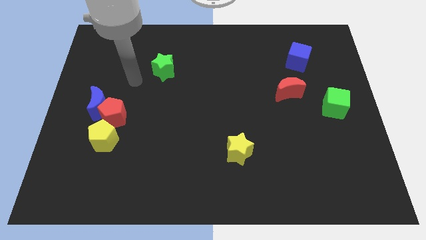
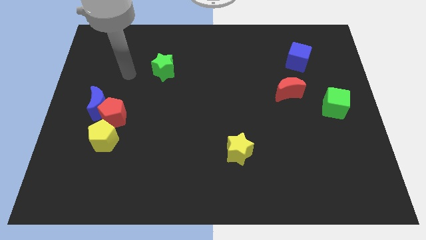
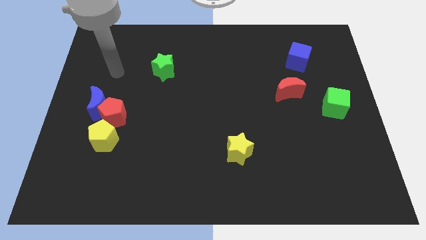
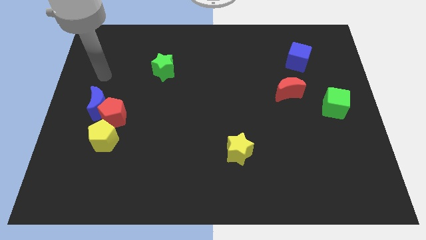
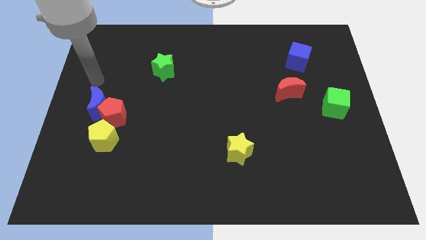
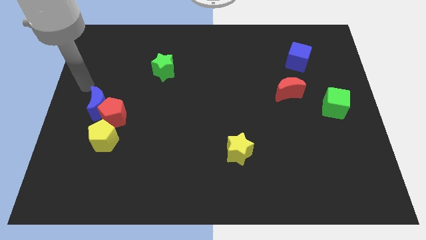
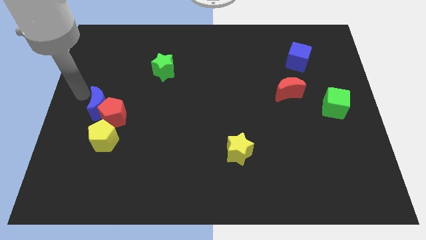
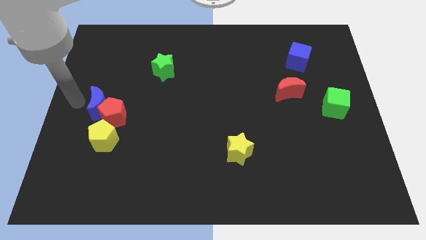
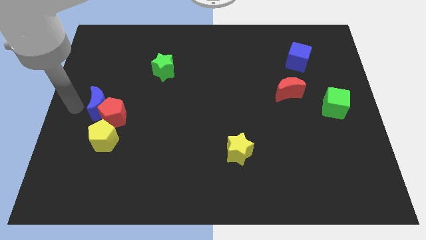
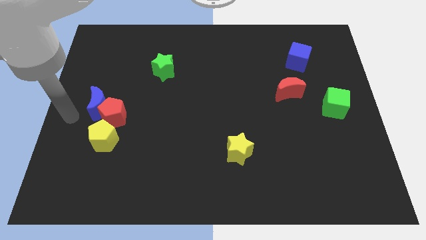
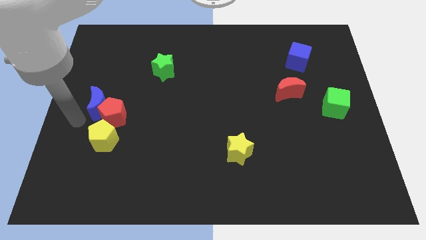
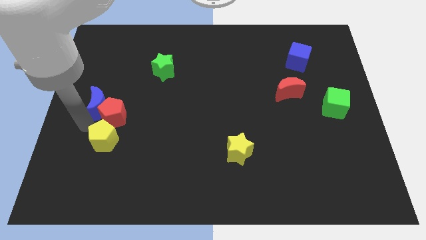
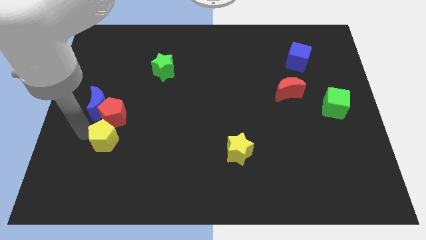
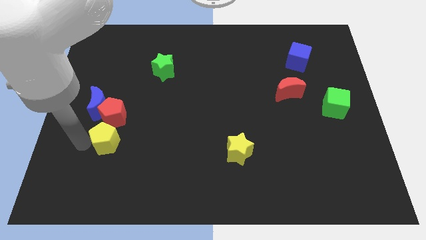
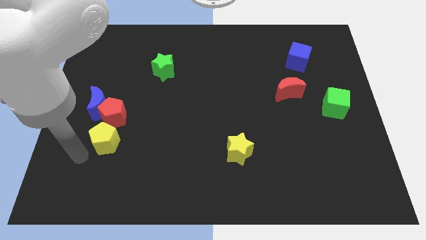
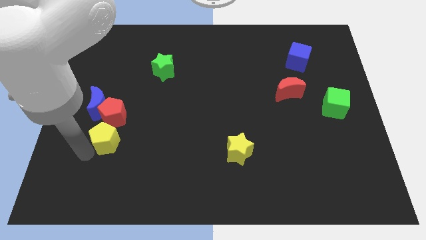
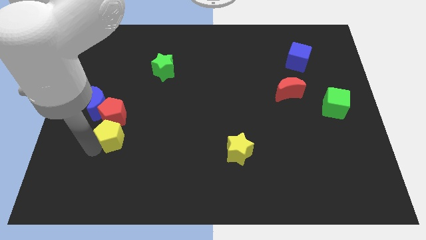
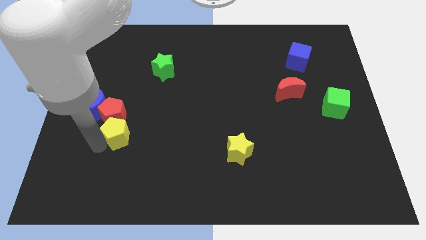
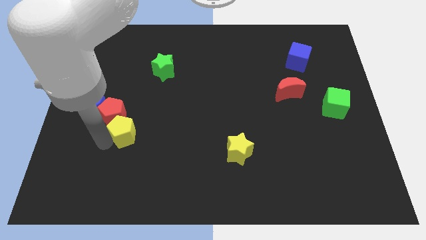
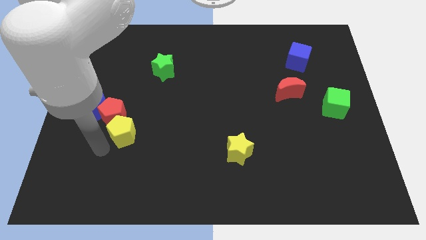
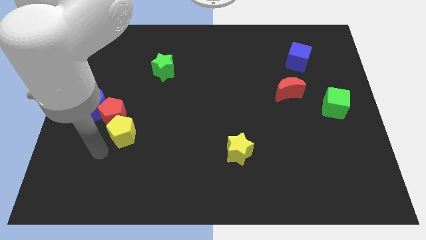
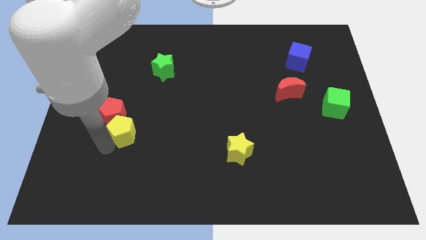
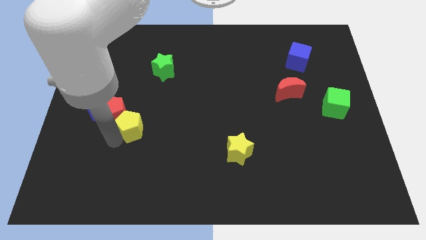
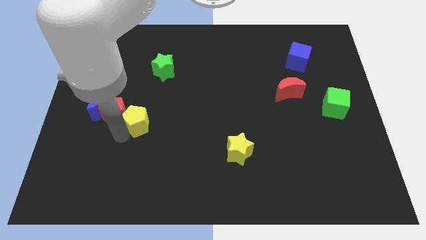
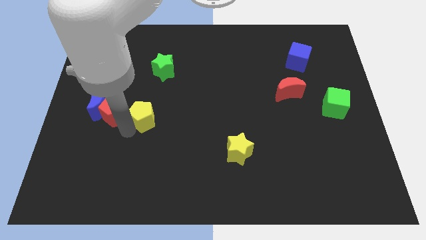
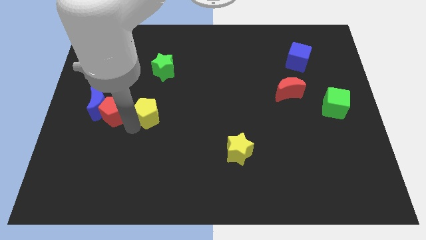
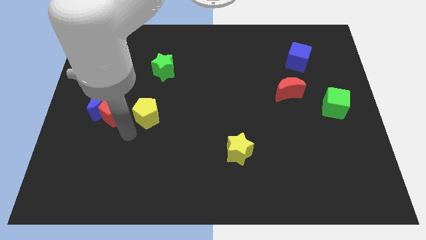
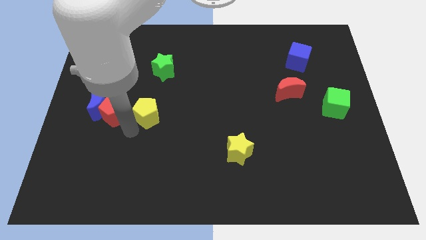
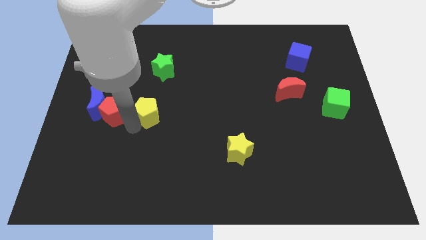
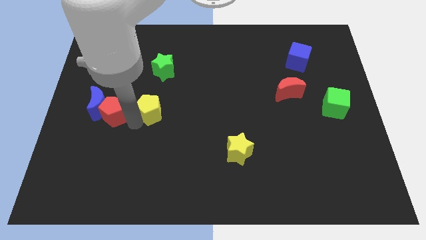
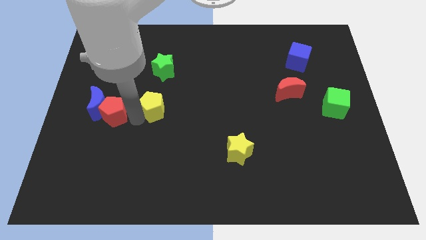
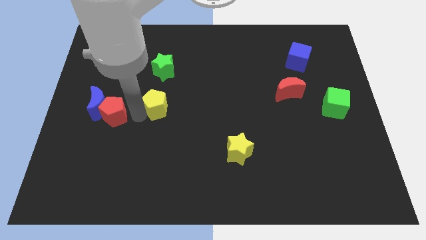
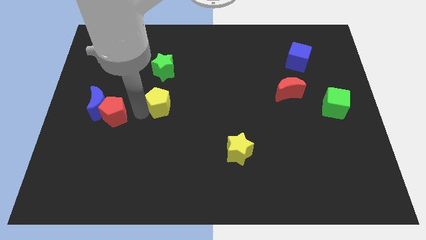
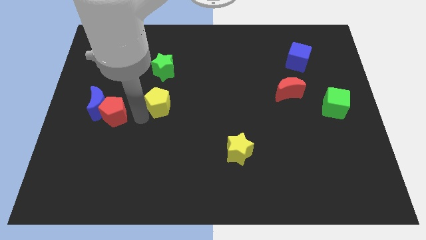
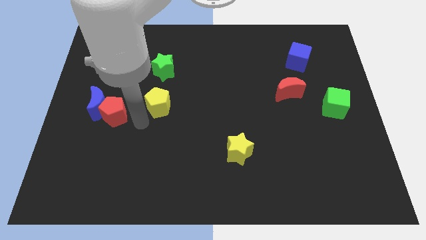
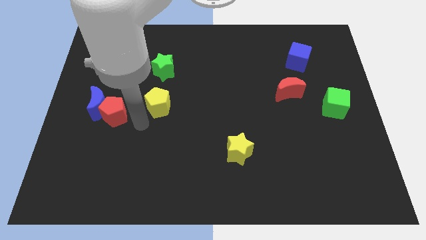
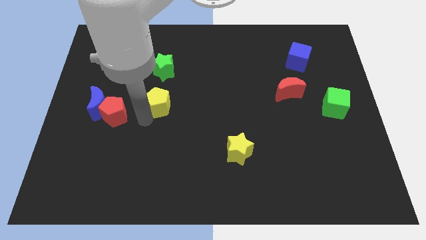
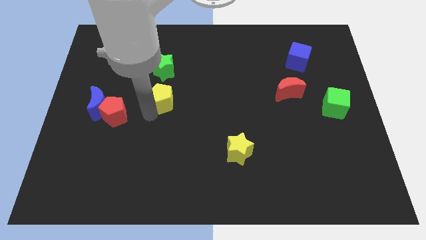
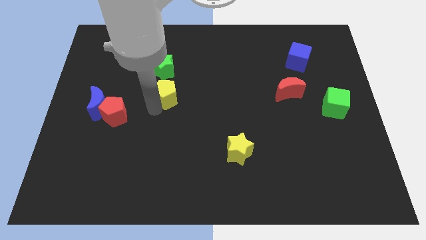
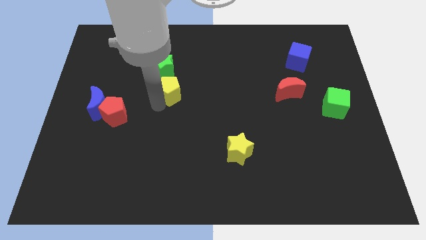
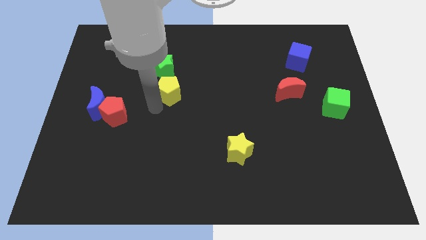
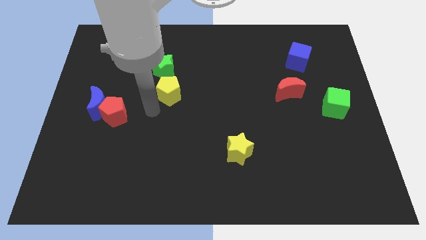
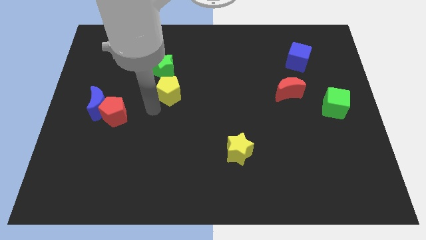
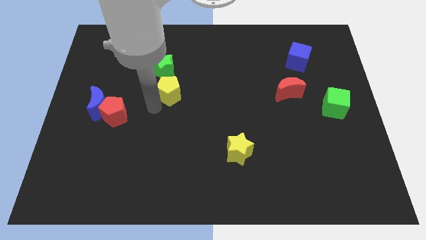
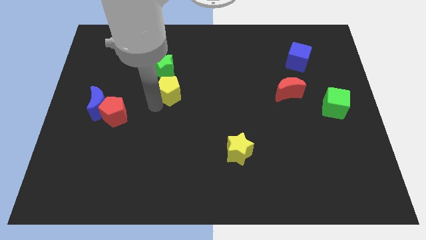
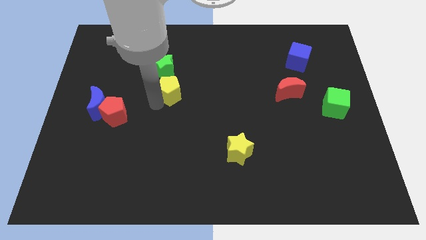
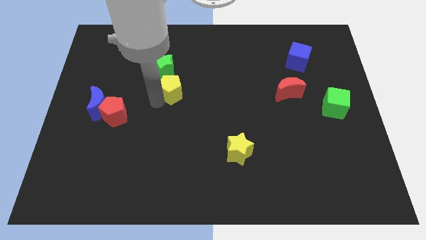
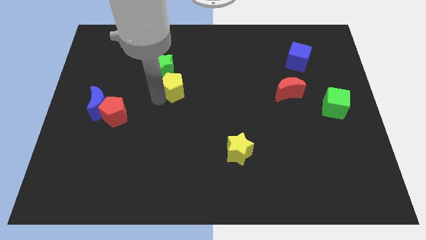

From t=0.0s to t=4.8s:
slide the yellow pentagon diagonally up and right

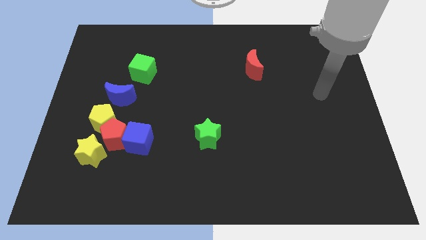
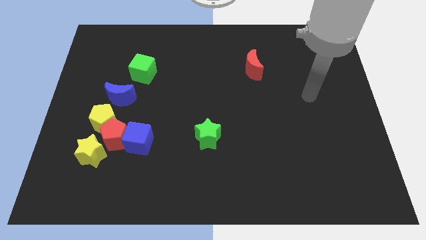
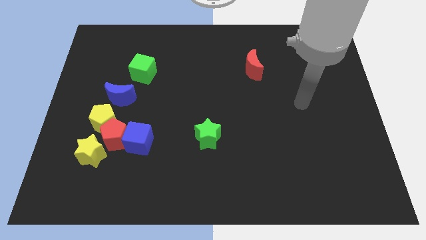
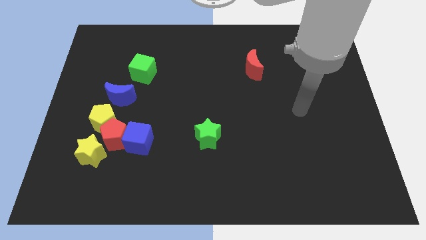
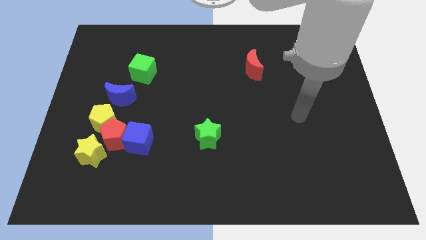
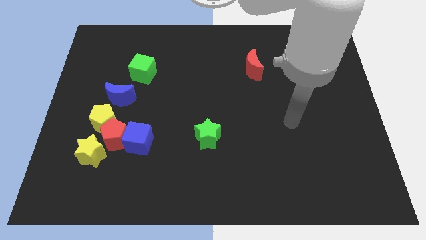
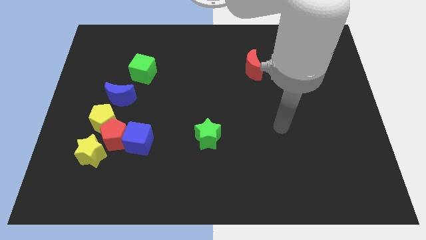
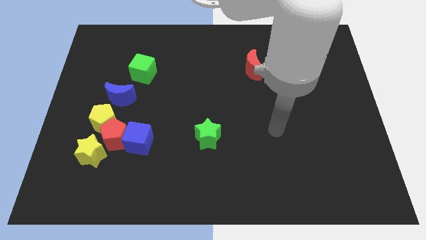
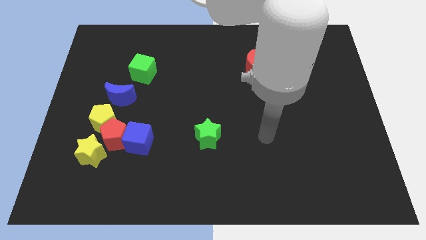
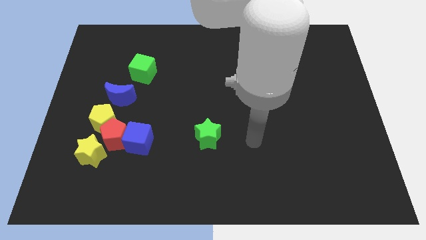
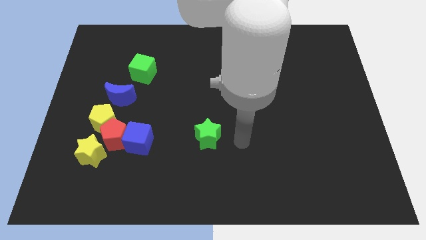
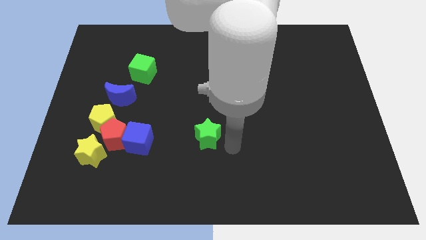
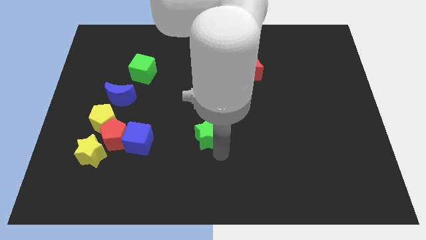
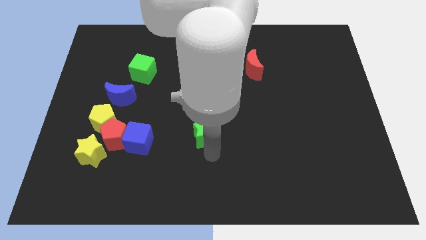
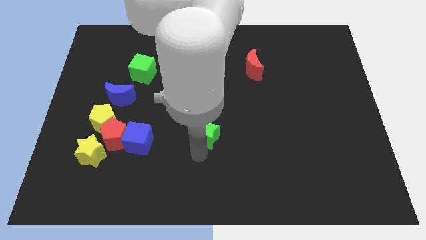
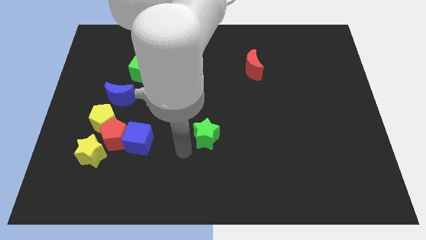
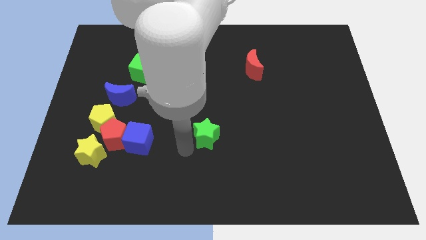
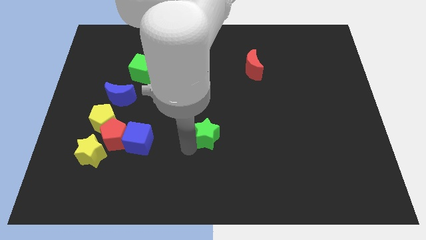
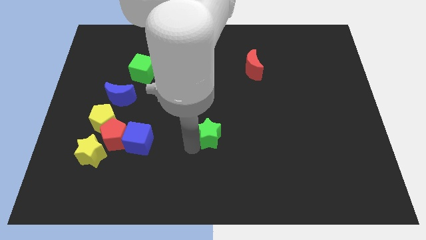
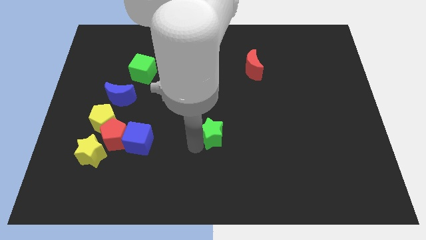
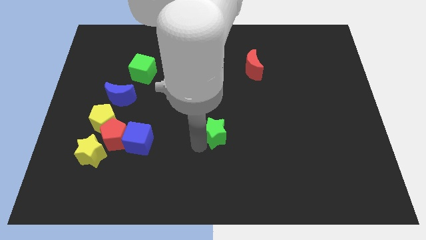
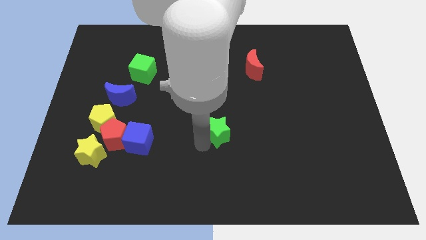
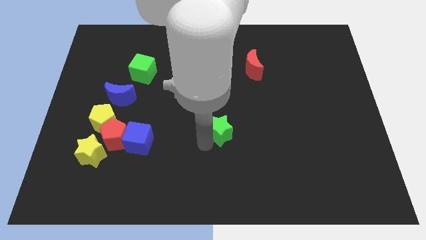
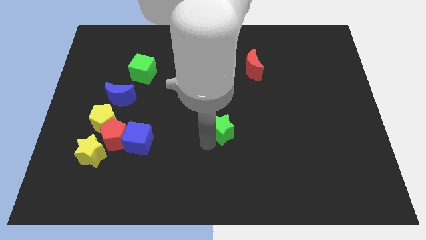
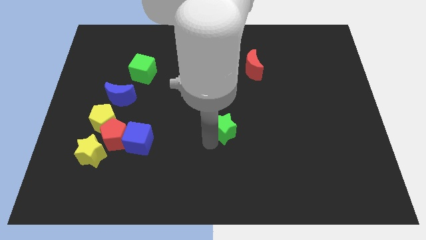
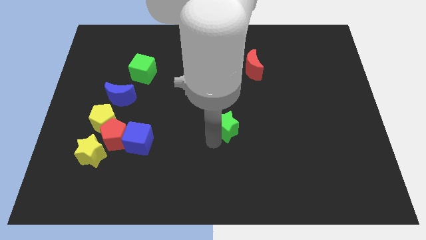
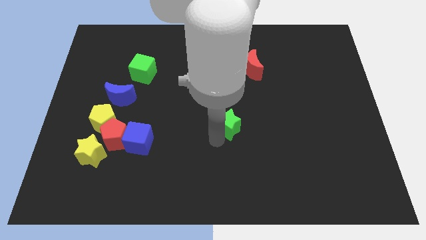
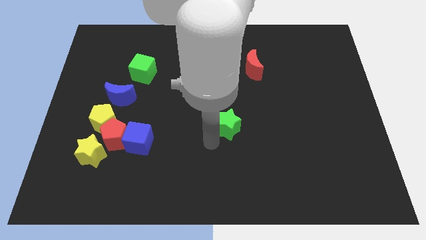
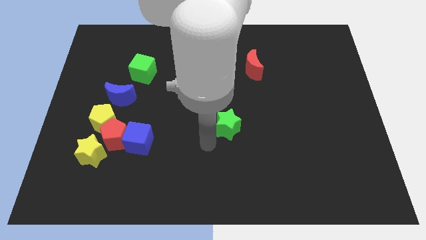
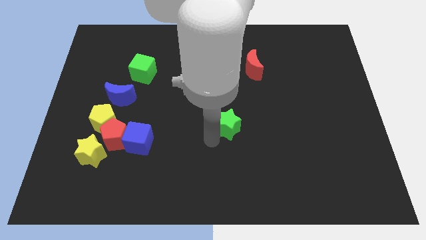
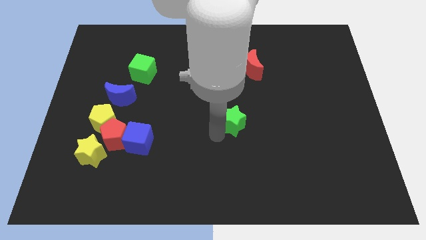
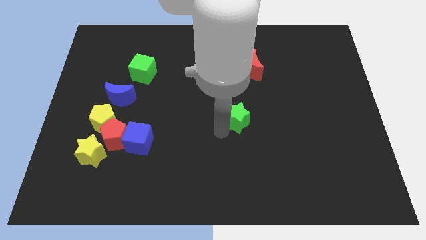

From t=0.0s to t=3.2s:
slightly slide the green star up and to the right
